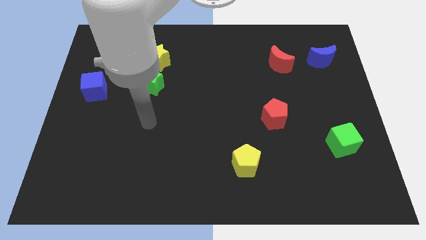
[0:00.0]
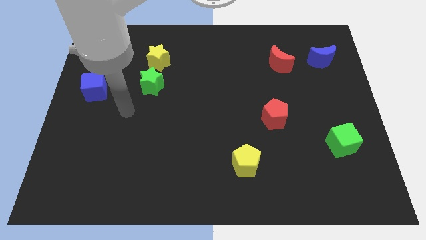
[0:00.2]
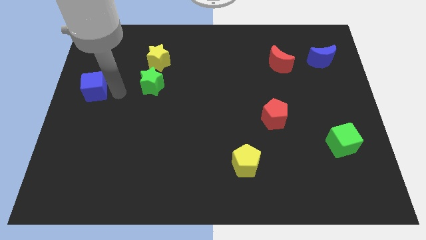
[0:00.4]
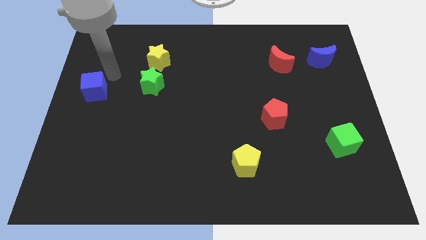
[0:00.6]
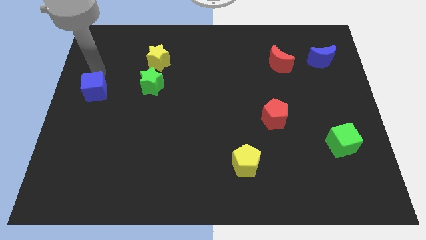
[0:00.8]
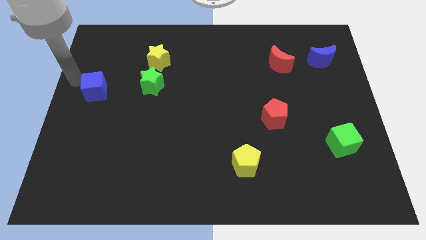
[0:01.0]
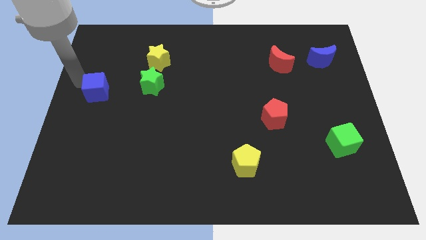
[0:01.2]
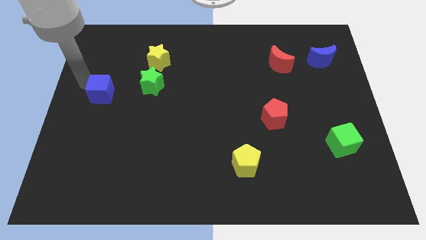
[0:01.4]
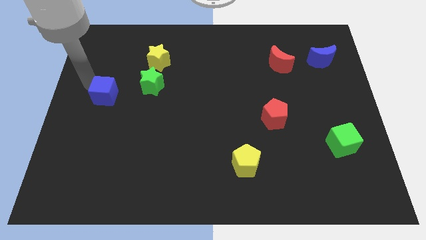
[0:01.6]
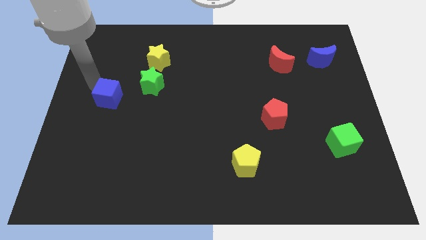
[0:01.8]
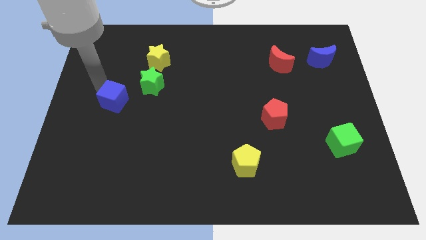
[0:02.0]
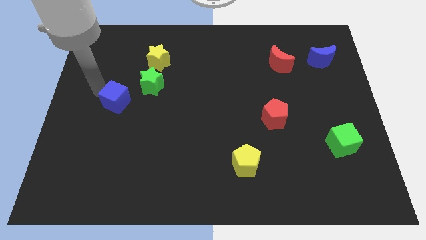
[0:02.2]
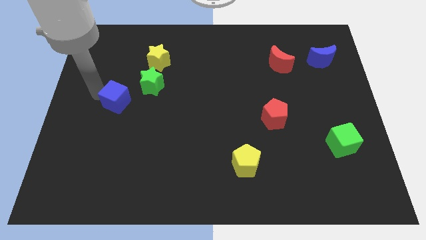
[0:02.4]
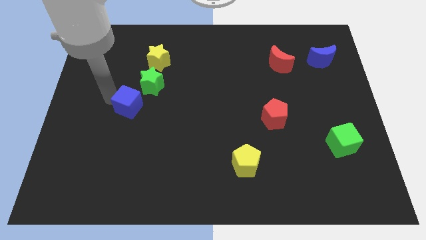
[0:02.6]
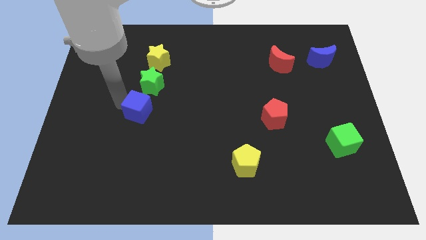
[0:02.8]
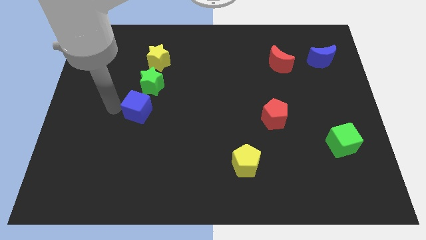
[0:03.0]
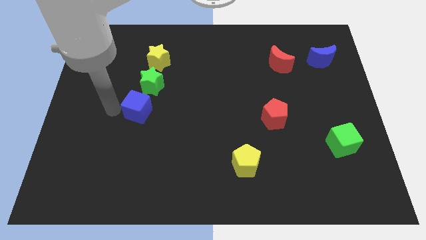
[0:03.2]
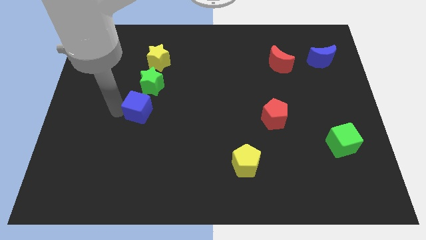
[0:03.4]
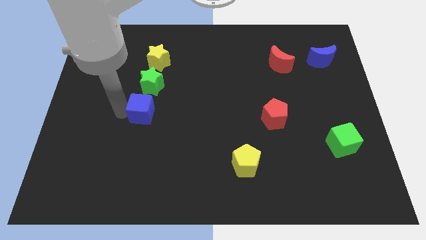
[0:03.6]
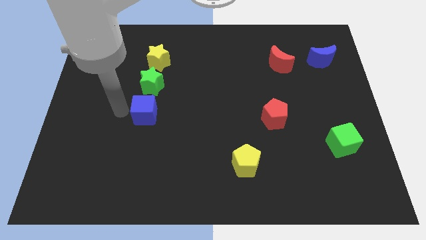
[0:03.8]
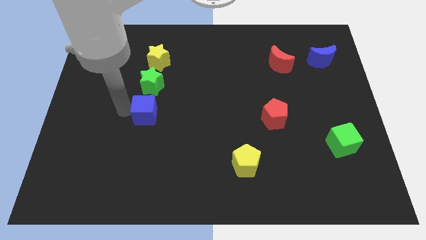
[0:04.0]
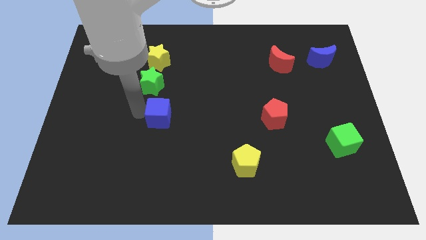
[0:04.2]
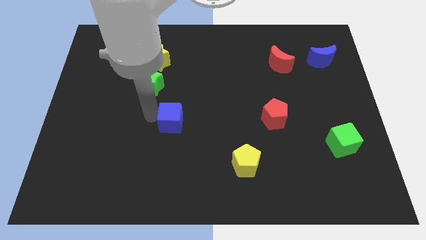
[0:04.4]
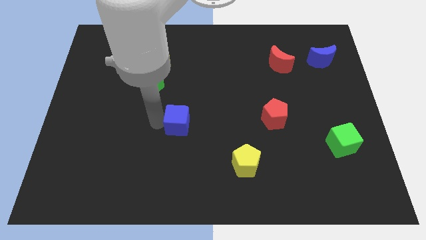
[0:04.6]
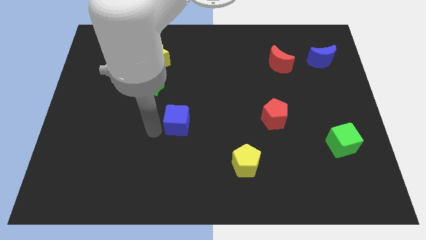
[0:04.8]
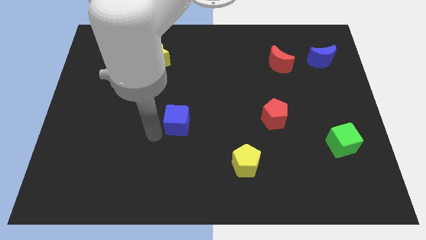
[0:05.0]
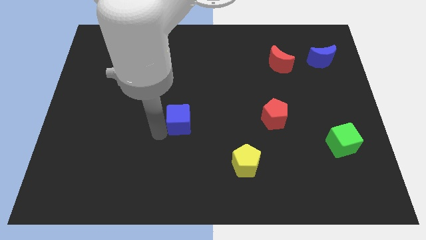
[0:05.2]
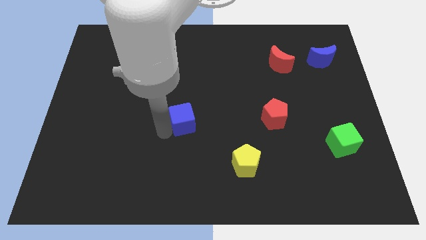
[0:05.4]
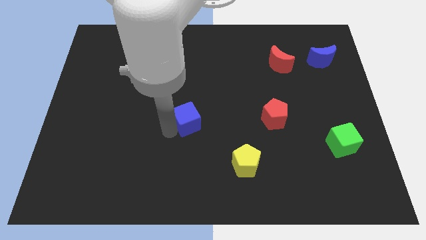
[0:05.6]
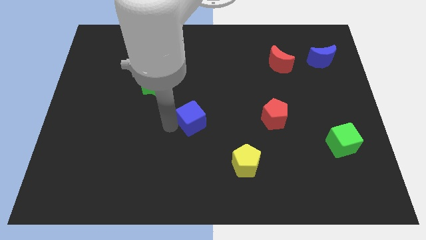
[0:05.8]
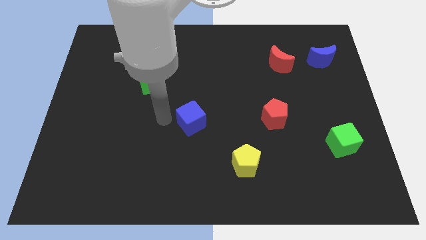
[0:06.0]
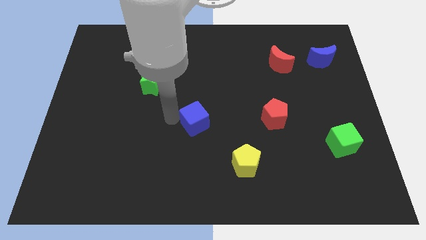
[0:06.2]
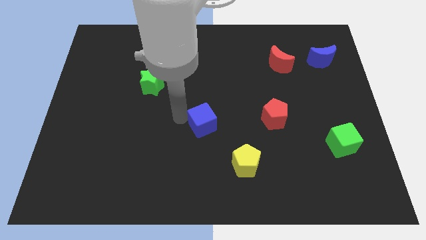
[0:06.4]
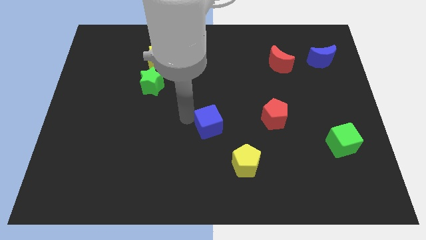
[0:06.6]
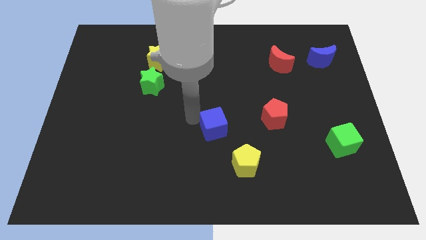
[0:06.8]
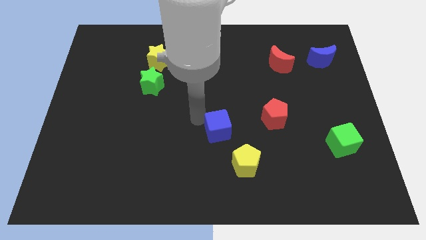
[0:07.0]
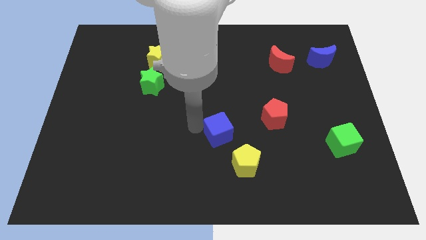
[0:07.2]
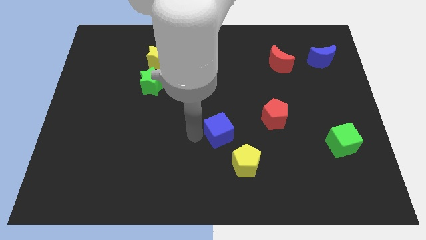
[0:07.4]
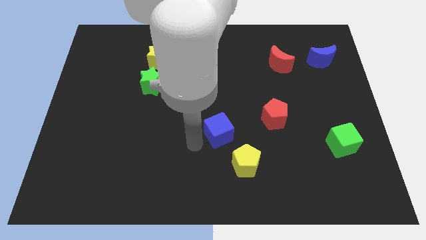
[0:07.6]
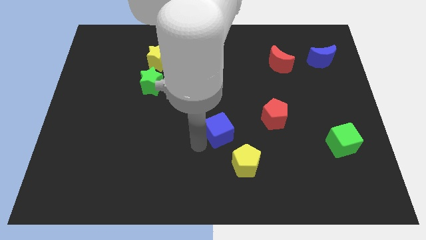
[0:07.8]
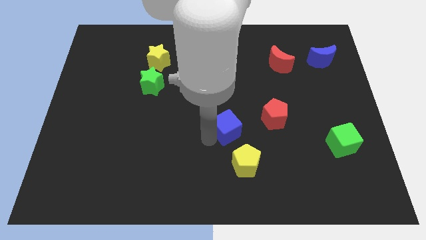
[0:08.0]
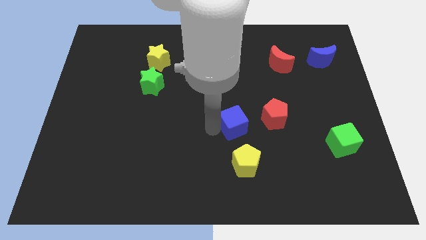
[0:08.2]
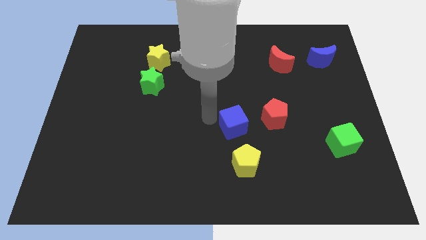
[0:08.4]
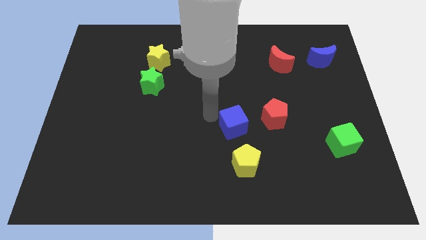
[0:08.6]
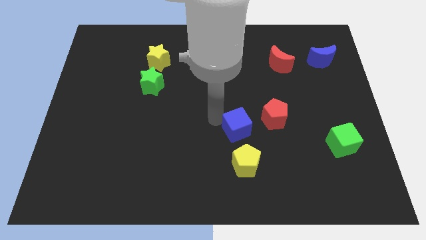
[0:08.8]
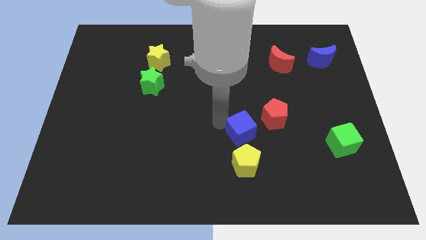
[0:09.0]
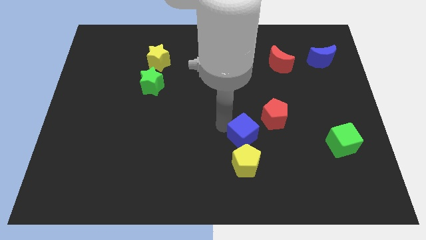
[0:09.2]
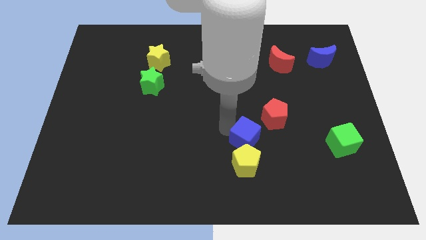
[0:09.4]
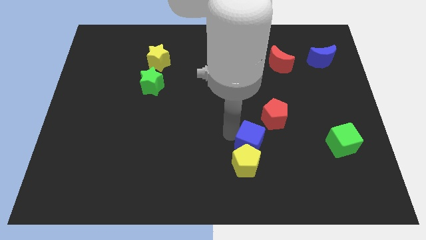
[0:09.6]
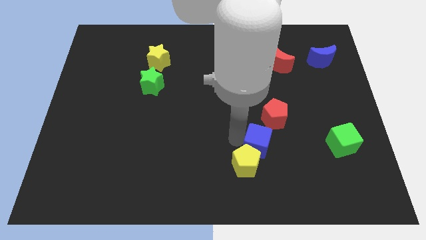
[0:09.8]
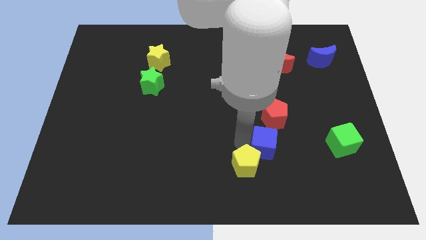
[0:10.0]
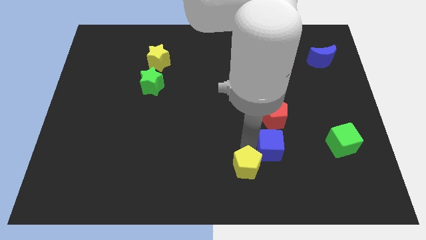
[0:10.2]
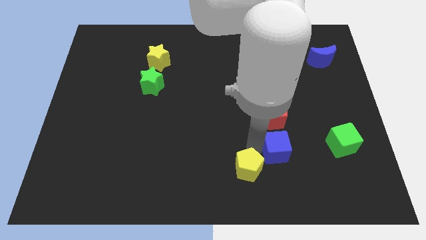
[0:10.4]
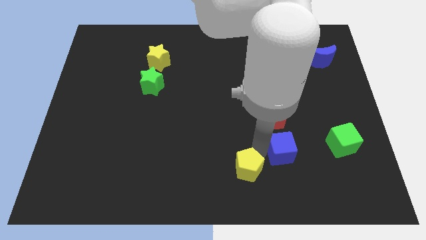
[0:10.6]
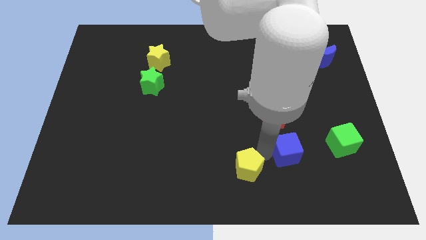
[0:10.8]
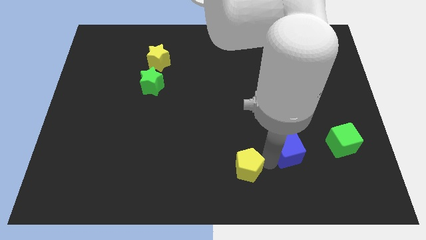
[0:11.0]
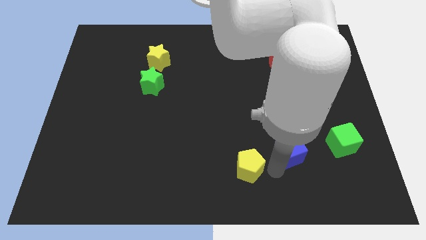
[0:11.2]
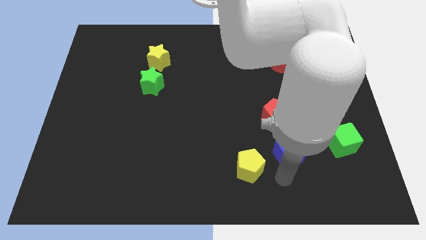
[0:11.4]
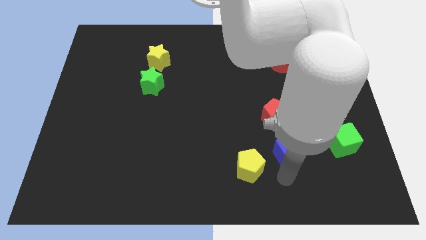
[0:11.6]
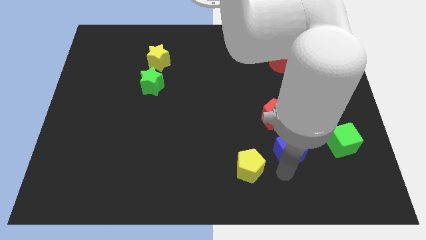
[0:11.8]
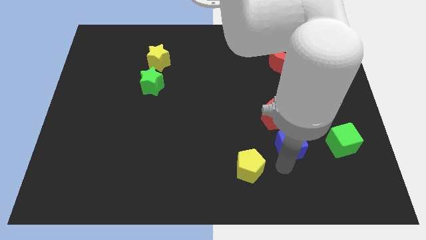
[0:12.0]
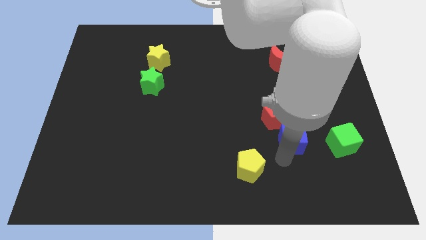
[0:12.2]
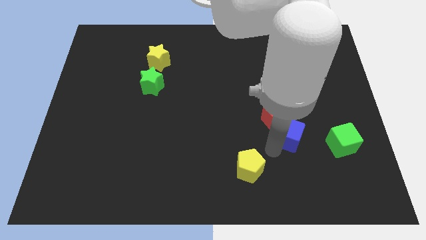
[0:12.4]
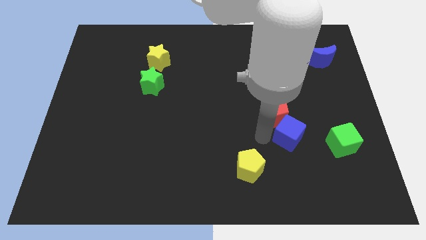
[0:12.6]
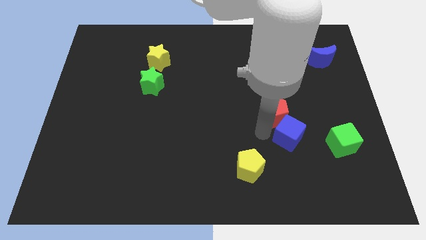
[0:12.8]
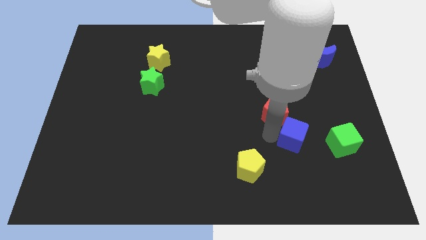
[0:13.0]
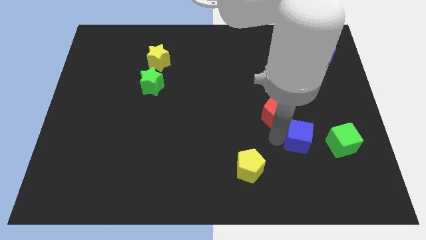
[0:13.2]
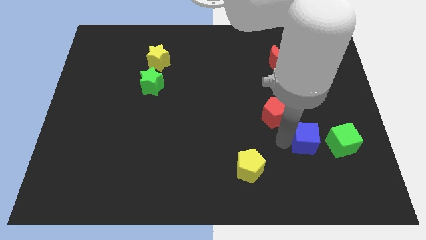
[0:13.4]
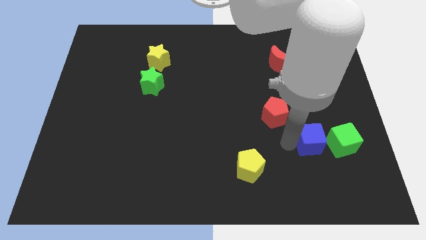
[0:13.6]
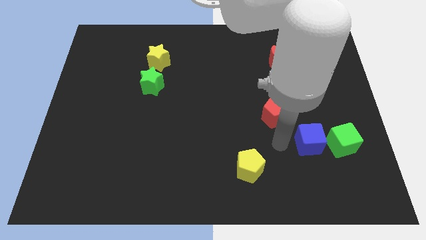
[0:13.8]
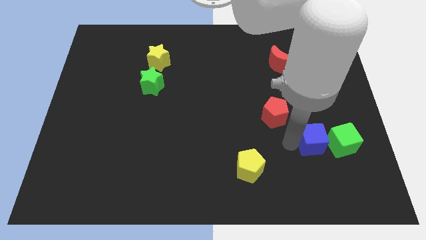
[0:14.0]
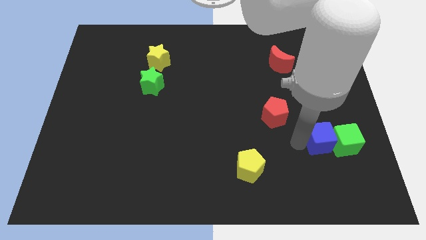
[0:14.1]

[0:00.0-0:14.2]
push the blue cube towards the green cube
